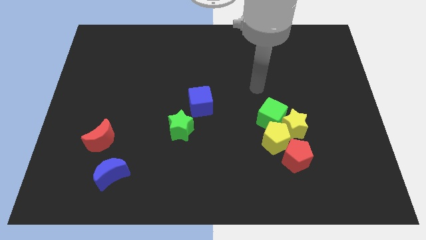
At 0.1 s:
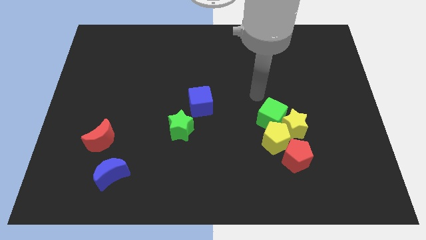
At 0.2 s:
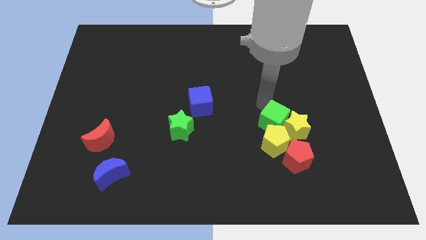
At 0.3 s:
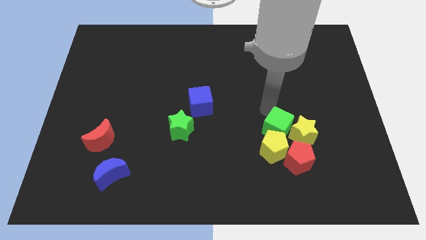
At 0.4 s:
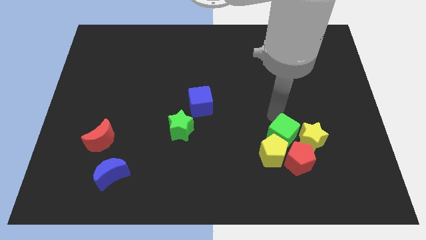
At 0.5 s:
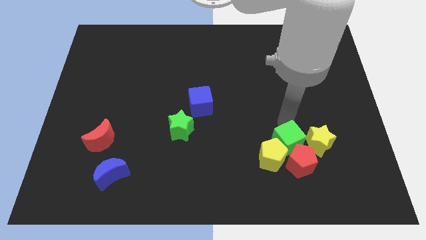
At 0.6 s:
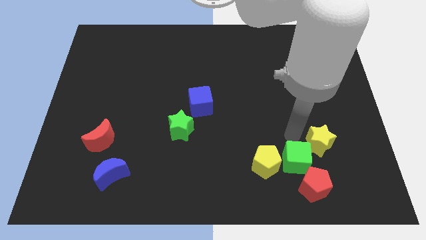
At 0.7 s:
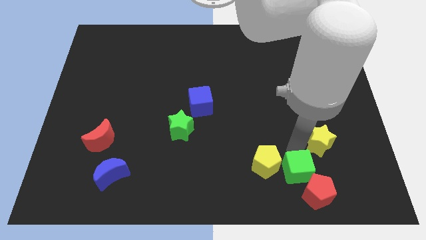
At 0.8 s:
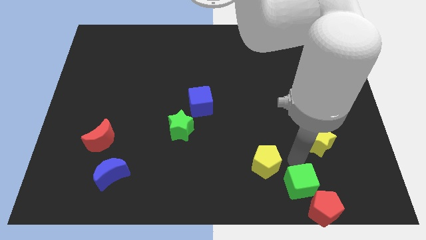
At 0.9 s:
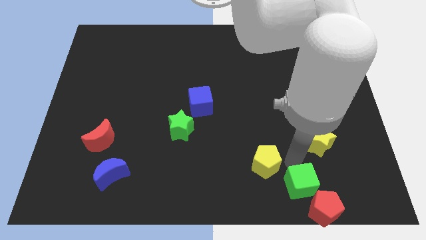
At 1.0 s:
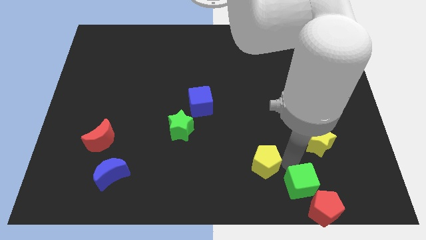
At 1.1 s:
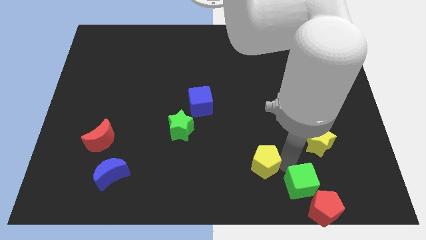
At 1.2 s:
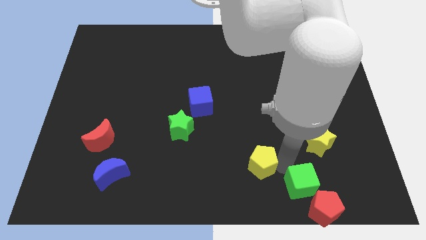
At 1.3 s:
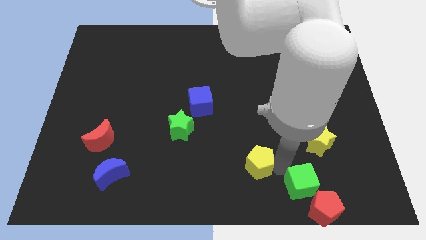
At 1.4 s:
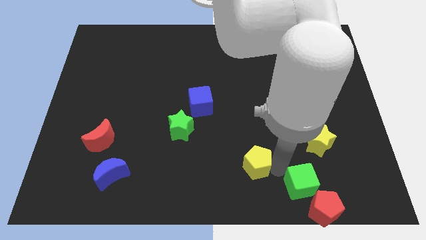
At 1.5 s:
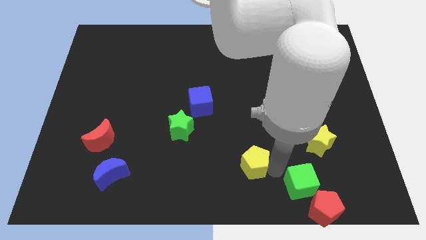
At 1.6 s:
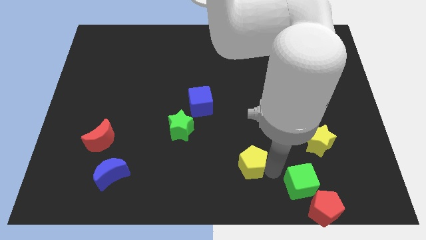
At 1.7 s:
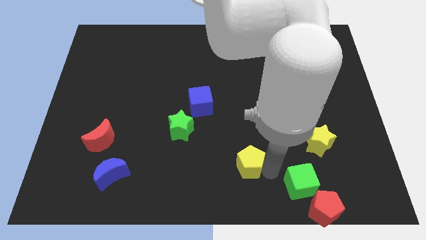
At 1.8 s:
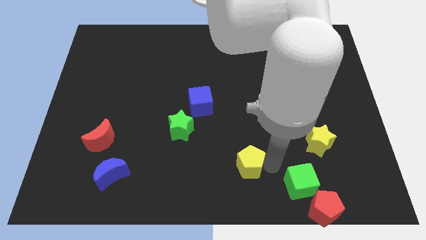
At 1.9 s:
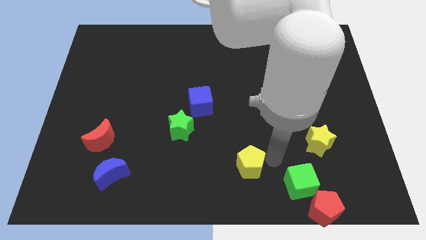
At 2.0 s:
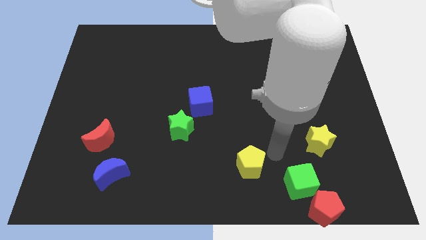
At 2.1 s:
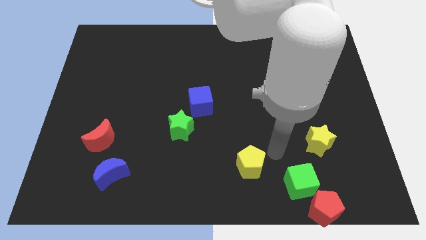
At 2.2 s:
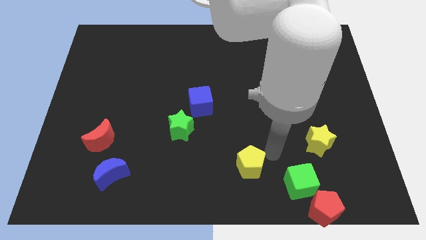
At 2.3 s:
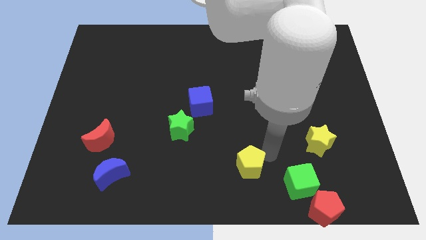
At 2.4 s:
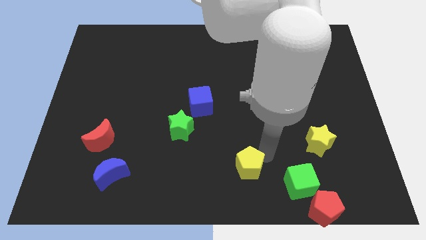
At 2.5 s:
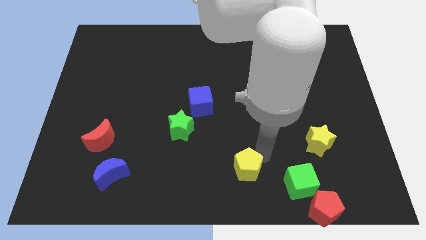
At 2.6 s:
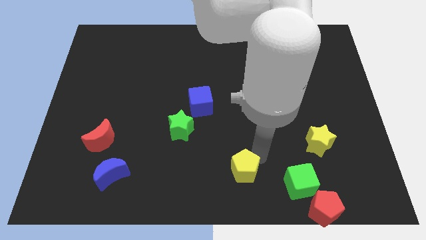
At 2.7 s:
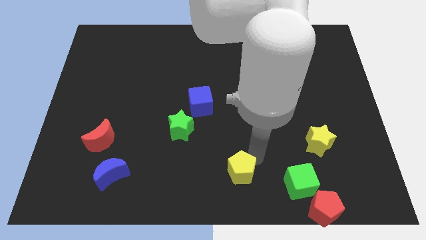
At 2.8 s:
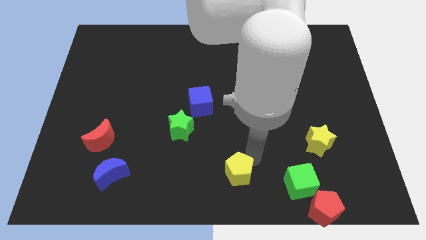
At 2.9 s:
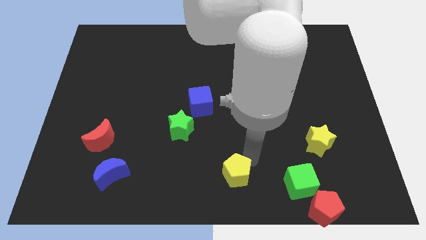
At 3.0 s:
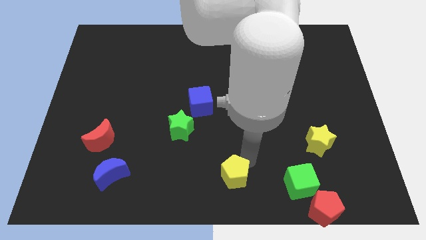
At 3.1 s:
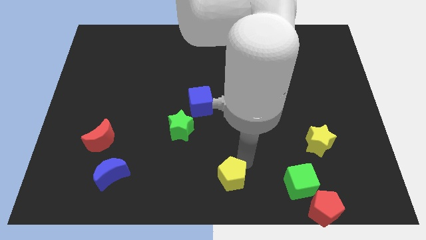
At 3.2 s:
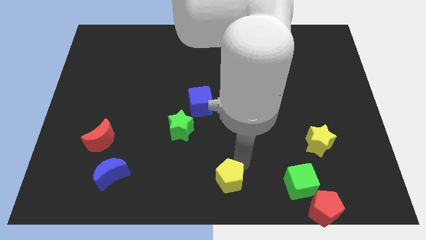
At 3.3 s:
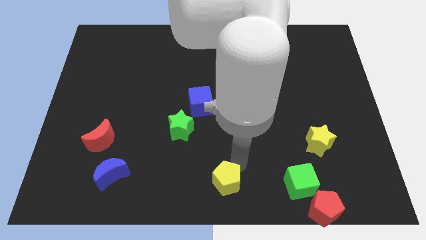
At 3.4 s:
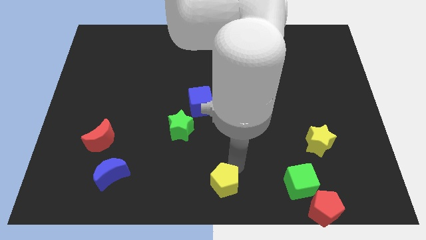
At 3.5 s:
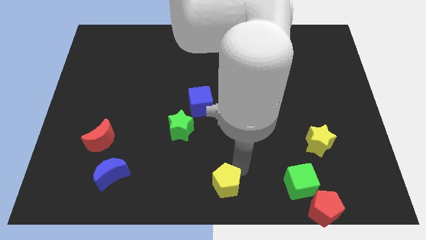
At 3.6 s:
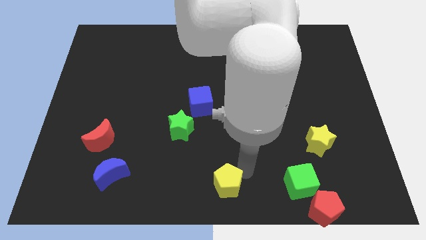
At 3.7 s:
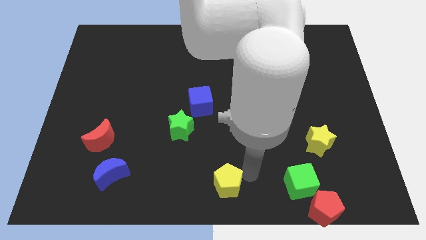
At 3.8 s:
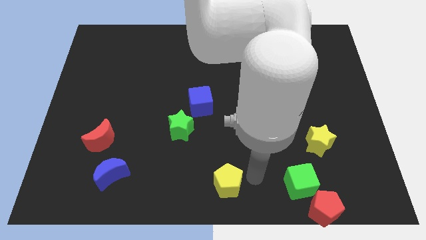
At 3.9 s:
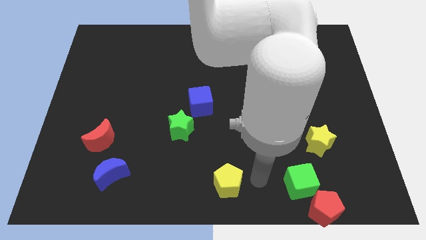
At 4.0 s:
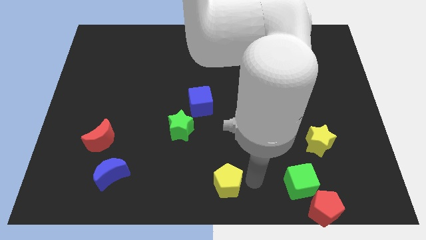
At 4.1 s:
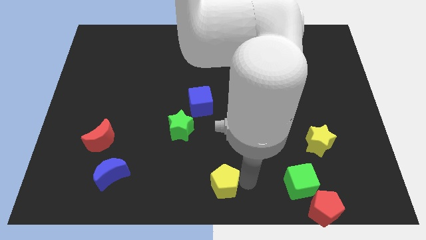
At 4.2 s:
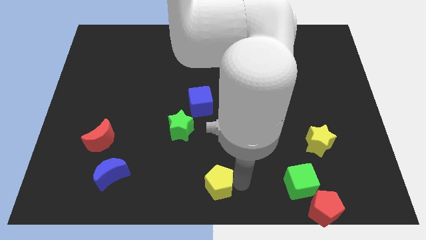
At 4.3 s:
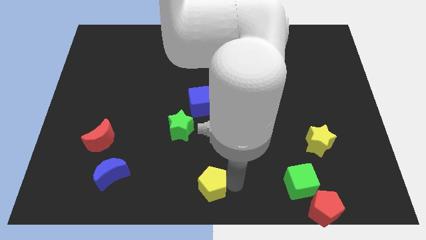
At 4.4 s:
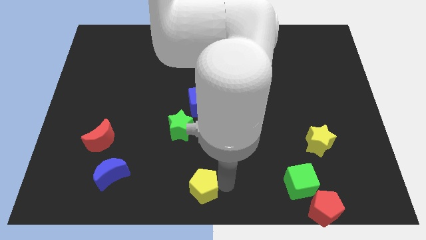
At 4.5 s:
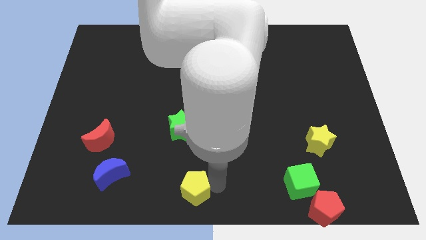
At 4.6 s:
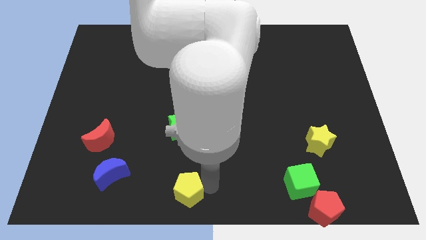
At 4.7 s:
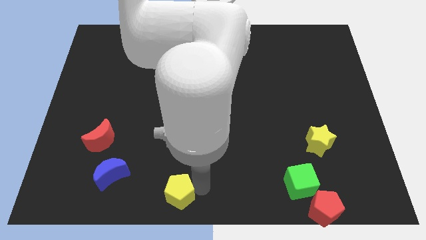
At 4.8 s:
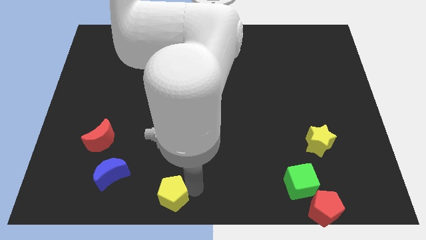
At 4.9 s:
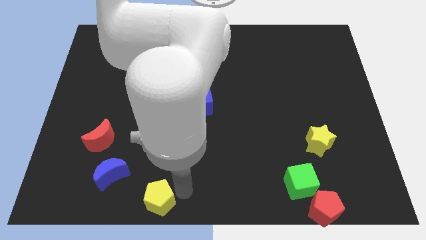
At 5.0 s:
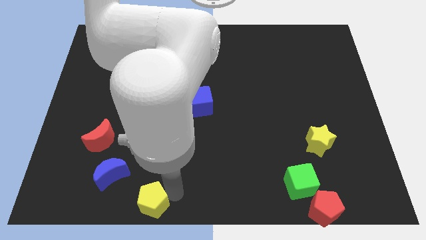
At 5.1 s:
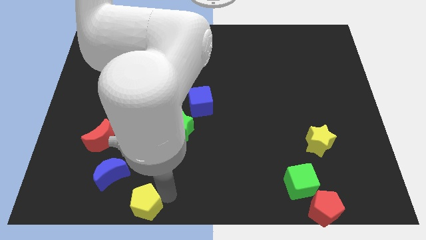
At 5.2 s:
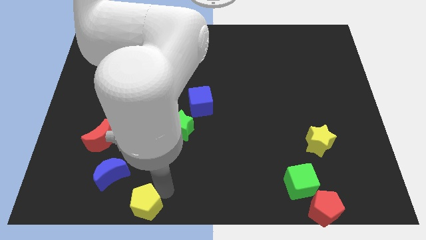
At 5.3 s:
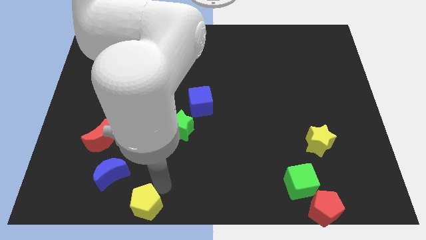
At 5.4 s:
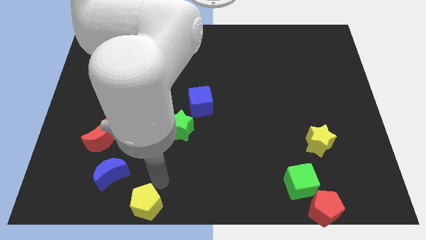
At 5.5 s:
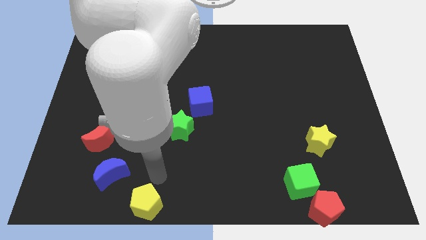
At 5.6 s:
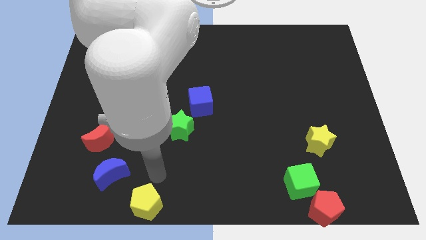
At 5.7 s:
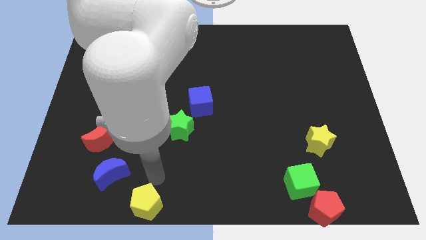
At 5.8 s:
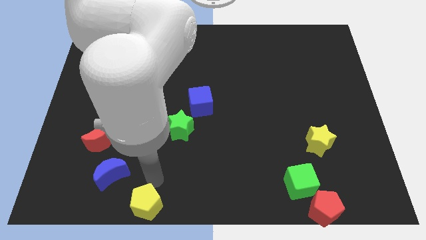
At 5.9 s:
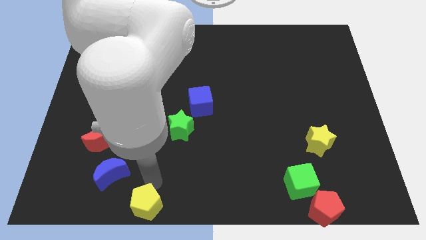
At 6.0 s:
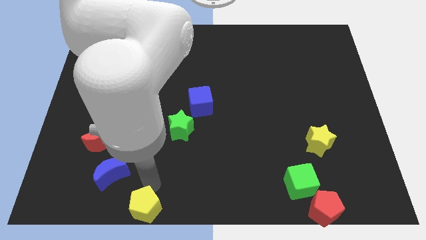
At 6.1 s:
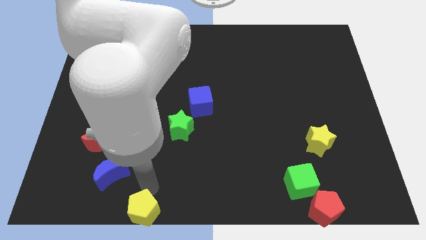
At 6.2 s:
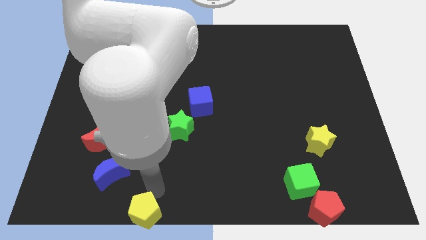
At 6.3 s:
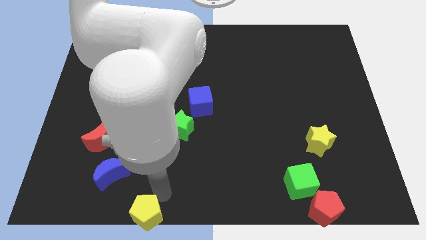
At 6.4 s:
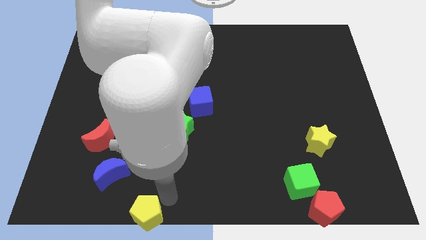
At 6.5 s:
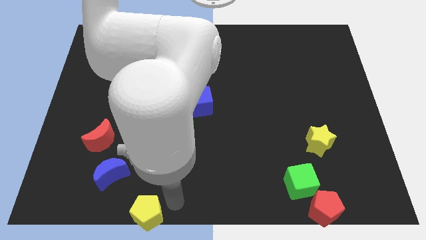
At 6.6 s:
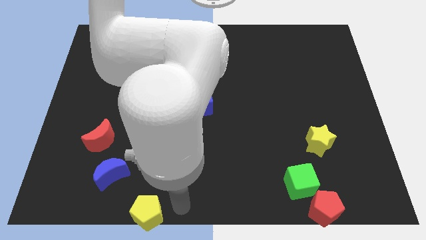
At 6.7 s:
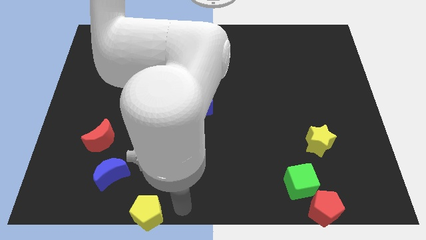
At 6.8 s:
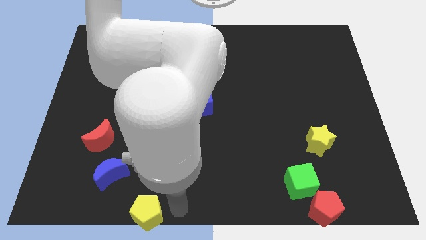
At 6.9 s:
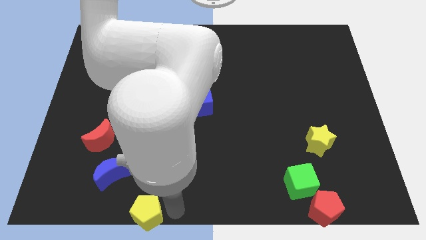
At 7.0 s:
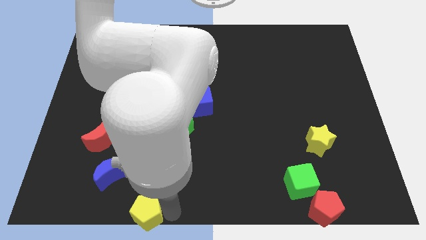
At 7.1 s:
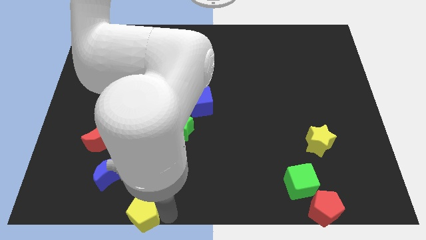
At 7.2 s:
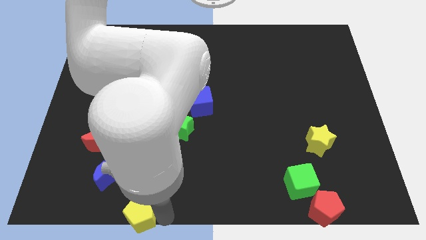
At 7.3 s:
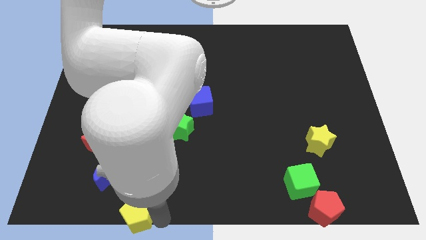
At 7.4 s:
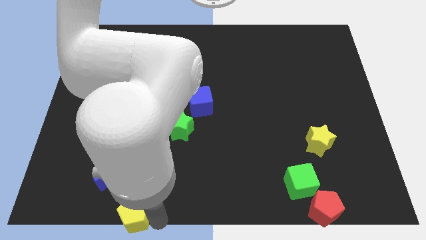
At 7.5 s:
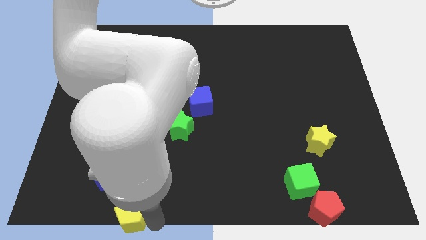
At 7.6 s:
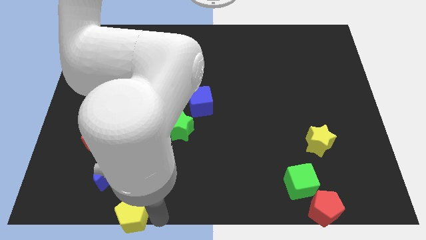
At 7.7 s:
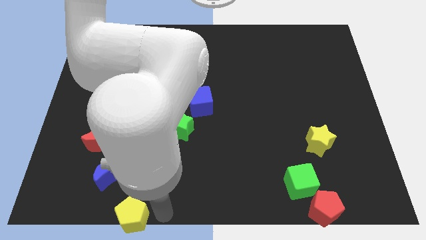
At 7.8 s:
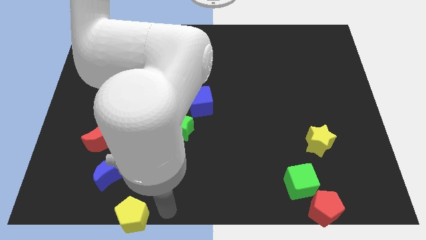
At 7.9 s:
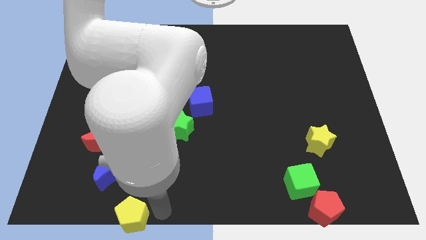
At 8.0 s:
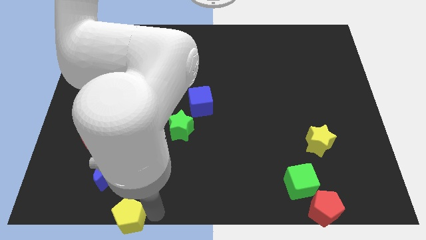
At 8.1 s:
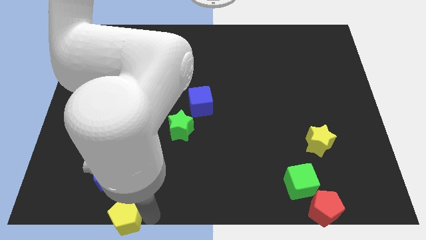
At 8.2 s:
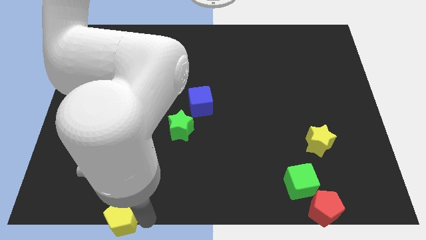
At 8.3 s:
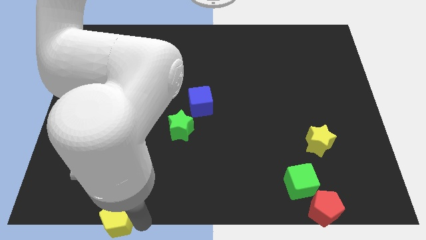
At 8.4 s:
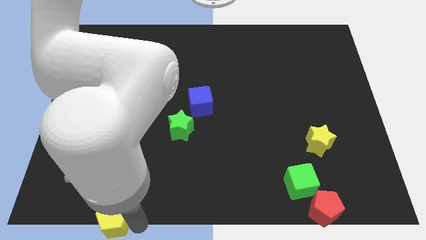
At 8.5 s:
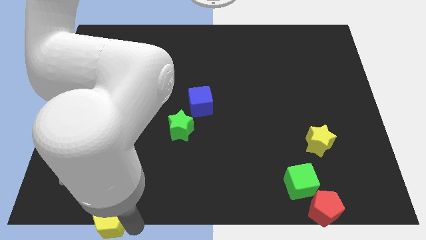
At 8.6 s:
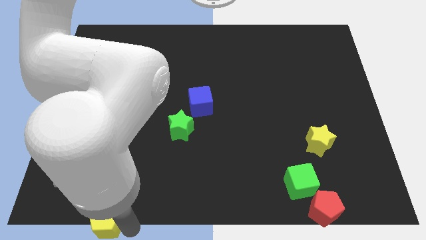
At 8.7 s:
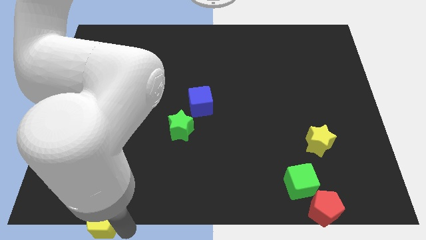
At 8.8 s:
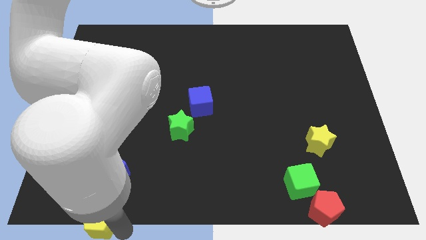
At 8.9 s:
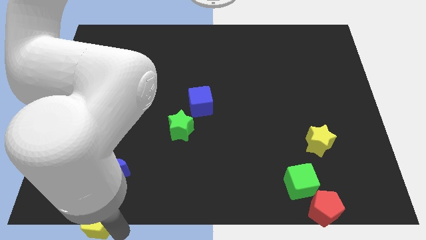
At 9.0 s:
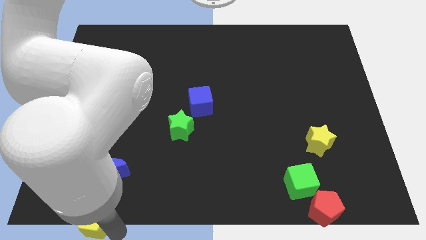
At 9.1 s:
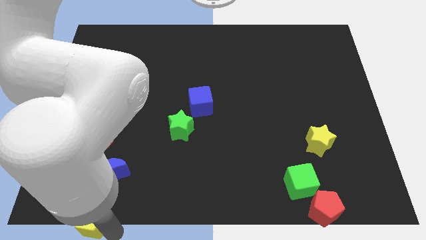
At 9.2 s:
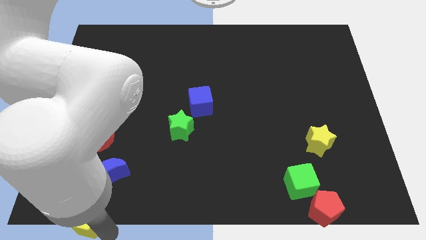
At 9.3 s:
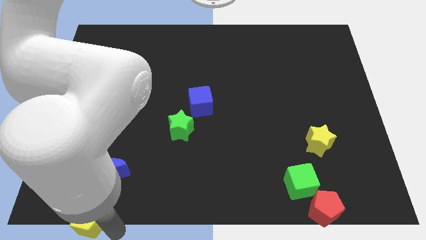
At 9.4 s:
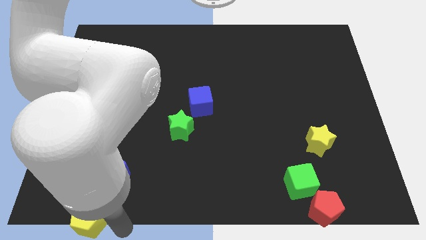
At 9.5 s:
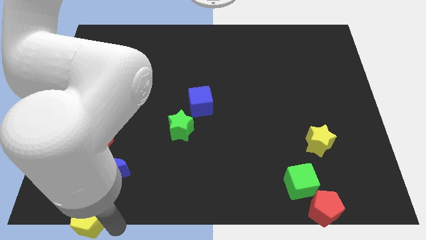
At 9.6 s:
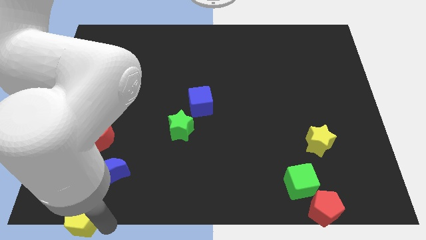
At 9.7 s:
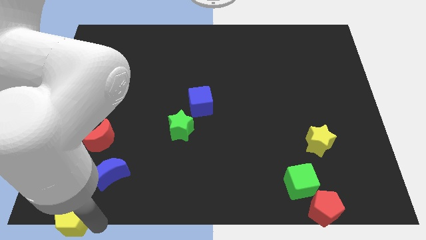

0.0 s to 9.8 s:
push the yellow pentagon to the bottom left
